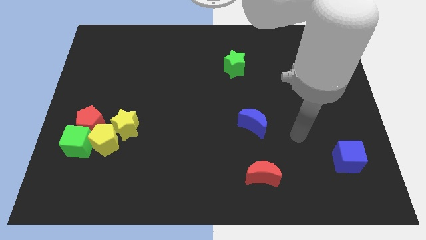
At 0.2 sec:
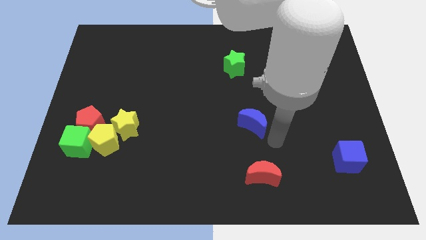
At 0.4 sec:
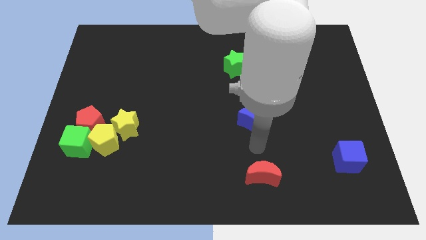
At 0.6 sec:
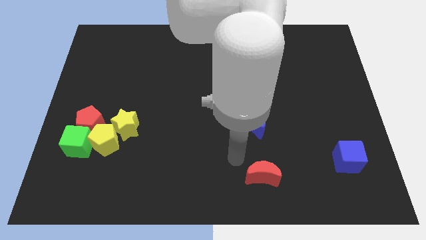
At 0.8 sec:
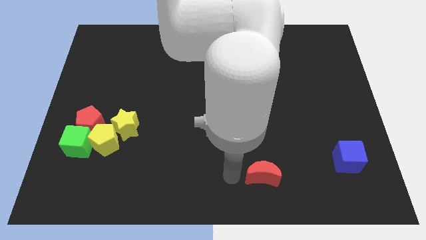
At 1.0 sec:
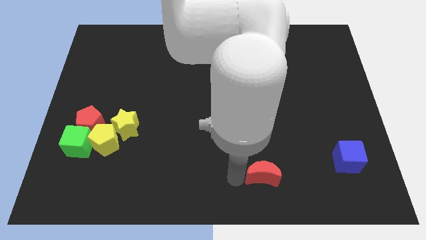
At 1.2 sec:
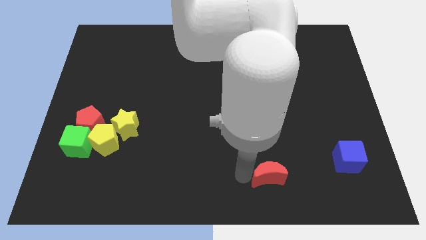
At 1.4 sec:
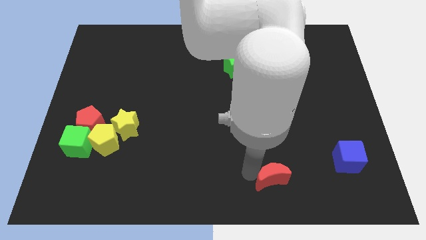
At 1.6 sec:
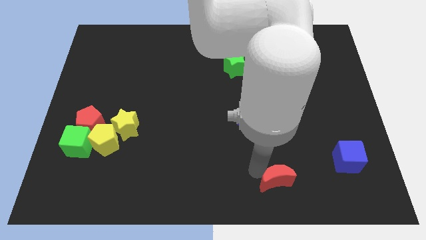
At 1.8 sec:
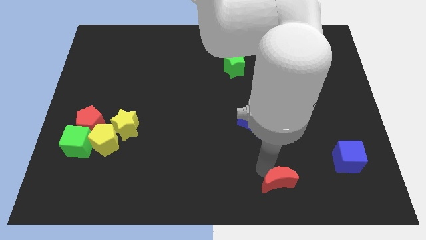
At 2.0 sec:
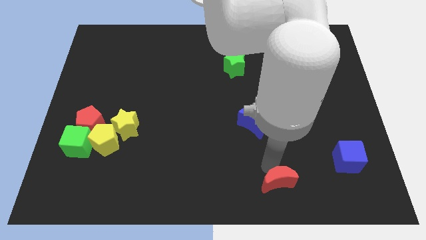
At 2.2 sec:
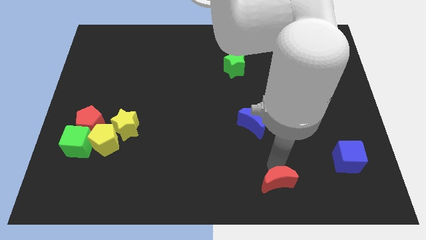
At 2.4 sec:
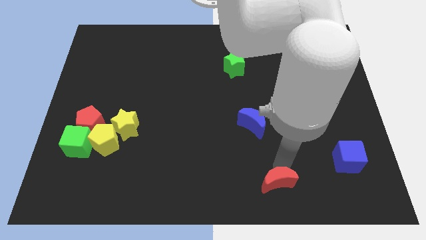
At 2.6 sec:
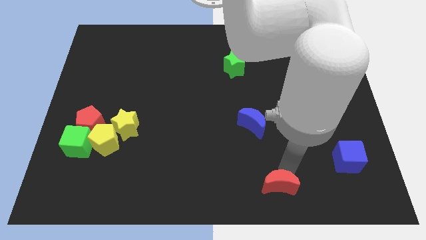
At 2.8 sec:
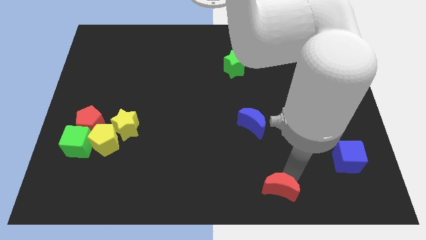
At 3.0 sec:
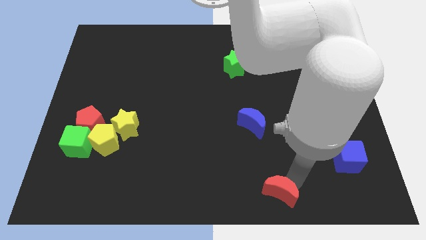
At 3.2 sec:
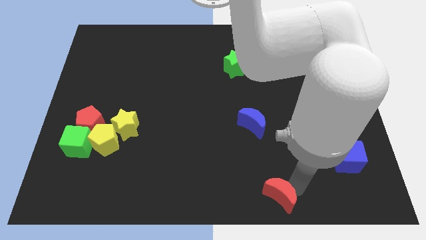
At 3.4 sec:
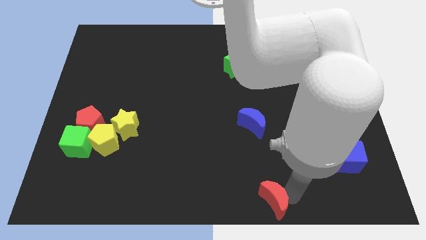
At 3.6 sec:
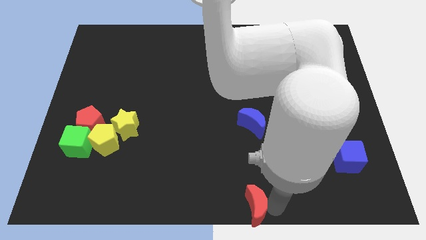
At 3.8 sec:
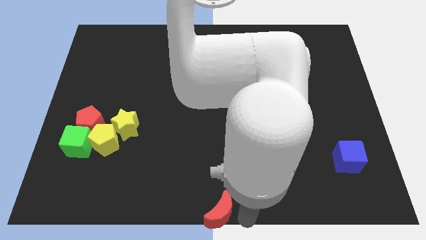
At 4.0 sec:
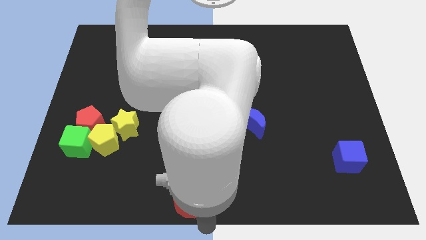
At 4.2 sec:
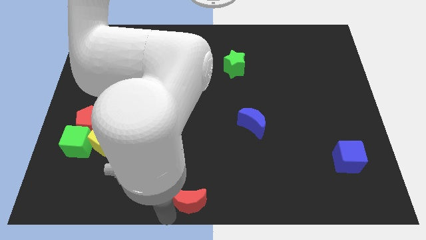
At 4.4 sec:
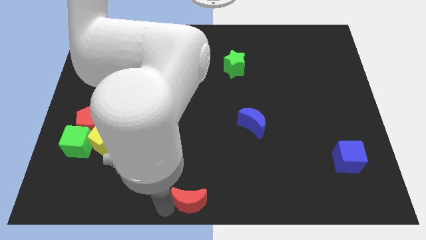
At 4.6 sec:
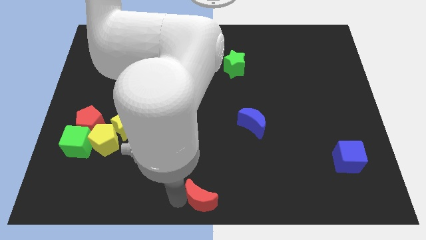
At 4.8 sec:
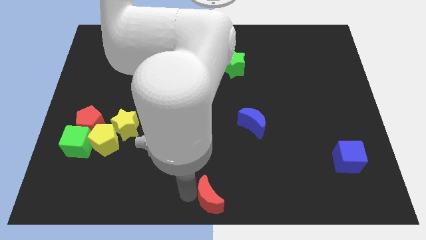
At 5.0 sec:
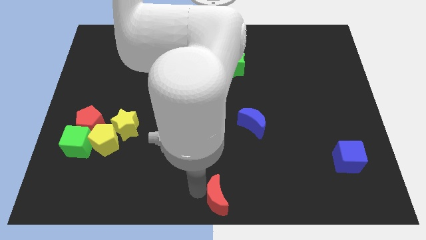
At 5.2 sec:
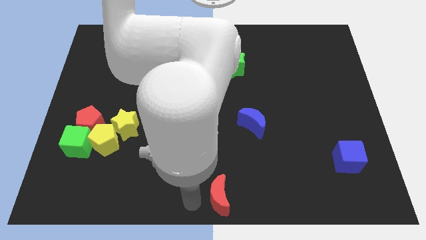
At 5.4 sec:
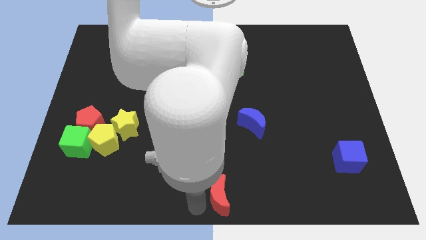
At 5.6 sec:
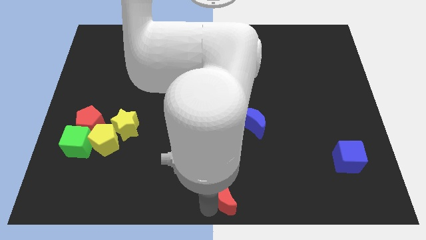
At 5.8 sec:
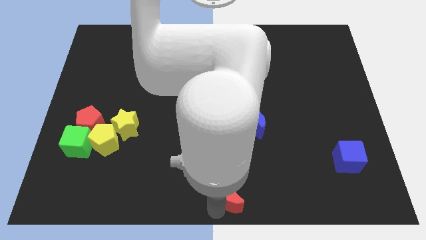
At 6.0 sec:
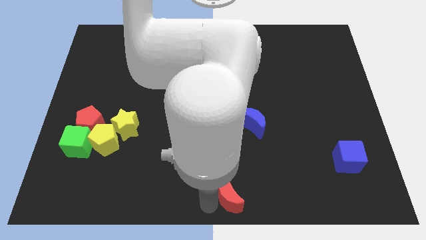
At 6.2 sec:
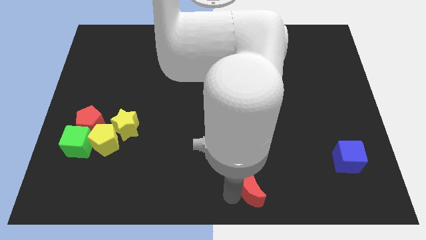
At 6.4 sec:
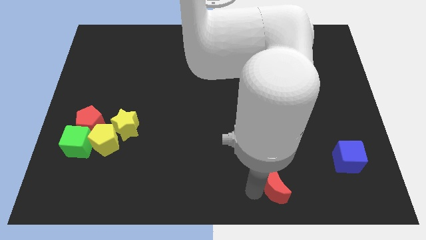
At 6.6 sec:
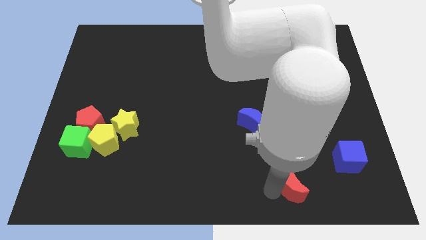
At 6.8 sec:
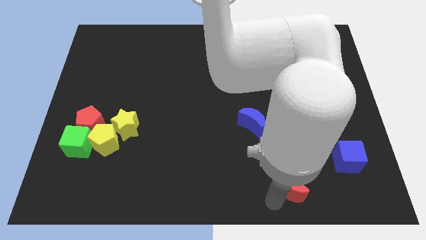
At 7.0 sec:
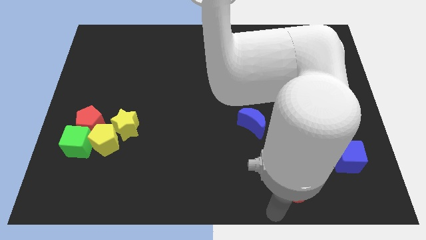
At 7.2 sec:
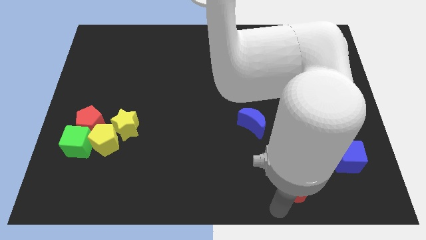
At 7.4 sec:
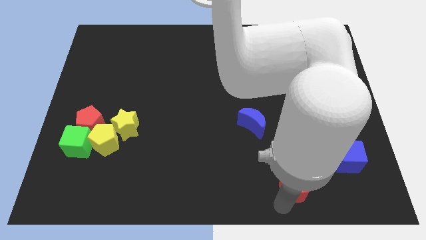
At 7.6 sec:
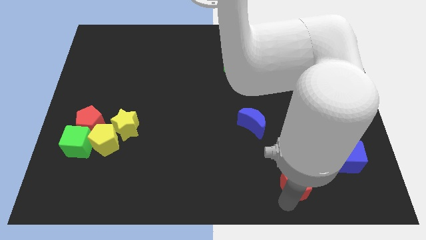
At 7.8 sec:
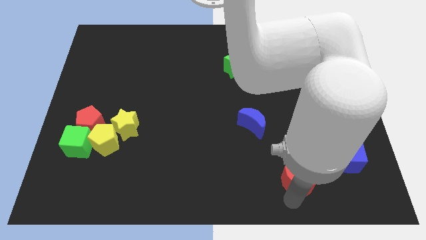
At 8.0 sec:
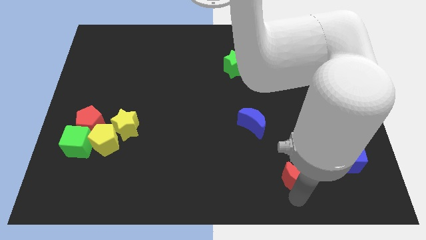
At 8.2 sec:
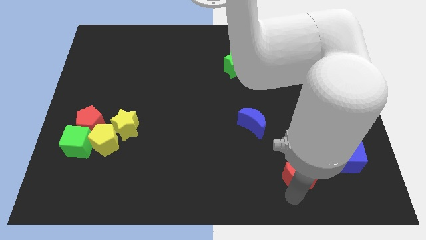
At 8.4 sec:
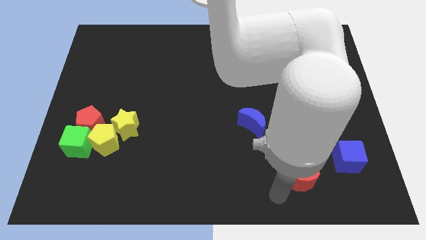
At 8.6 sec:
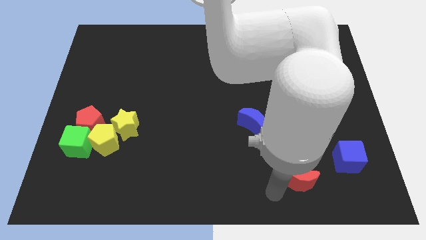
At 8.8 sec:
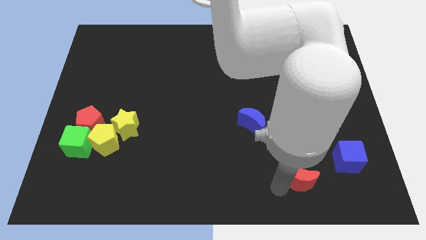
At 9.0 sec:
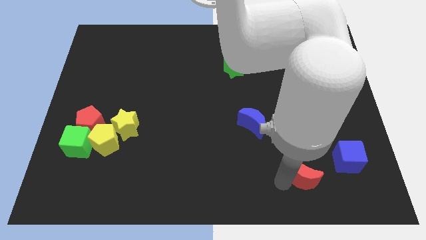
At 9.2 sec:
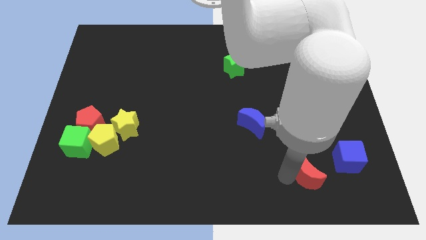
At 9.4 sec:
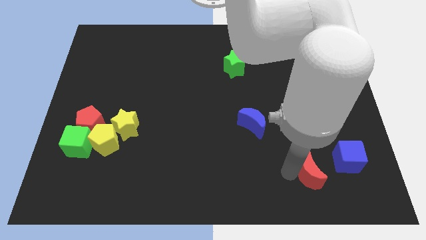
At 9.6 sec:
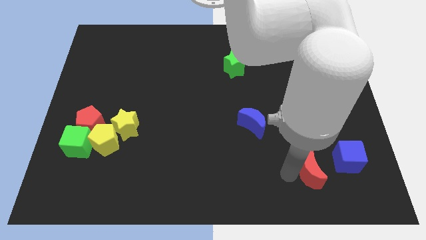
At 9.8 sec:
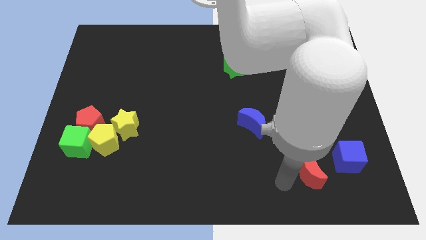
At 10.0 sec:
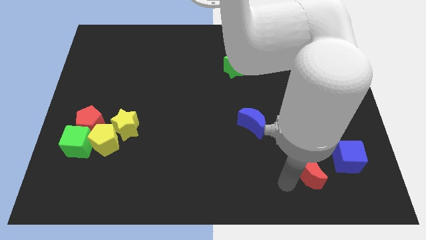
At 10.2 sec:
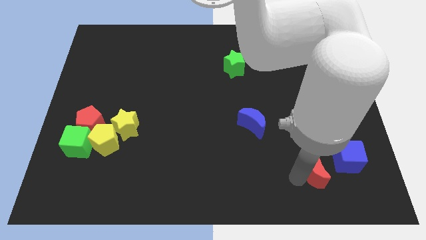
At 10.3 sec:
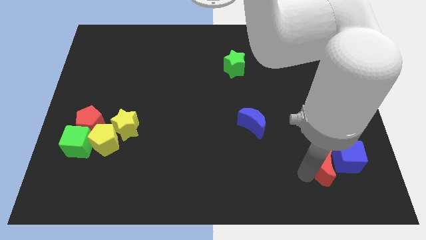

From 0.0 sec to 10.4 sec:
move the red moon to the blue cube

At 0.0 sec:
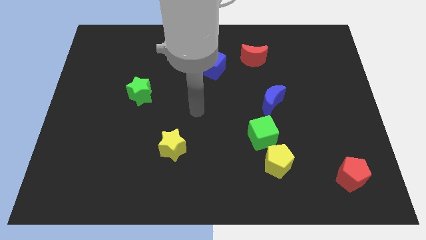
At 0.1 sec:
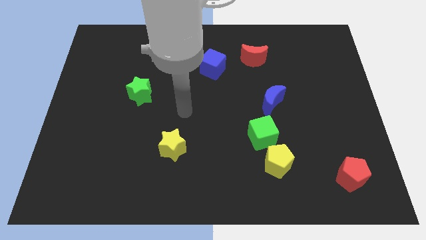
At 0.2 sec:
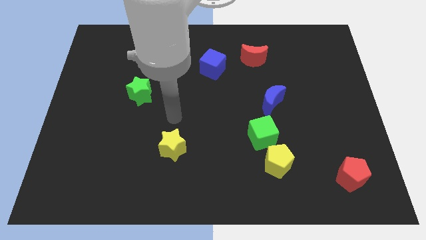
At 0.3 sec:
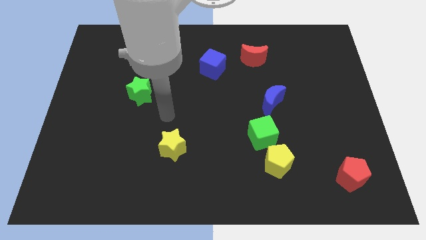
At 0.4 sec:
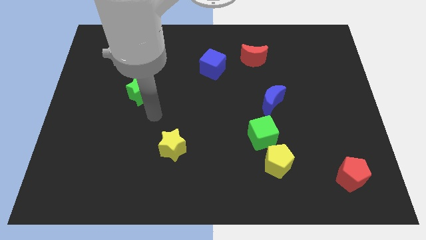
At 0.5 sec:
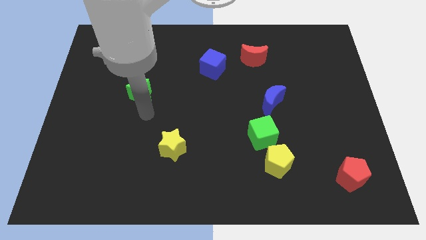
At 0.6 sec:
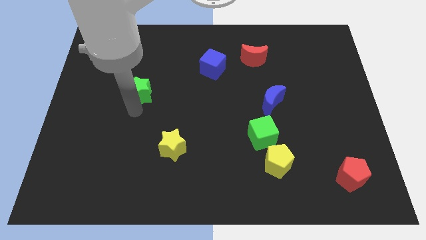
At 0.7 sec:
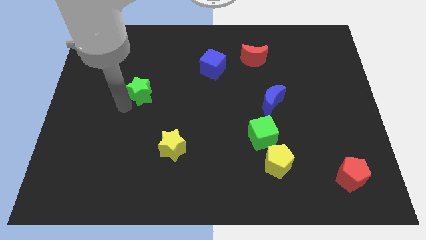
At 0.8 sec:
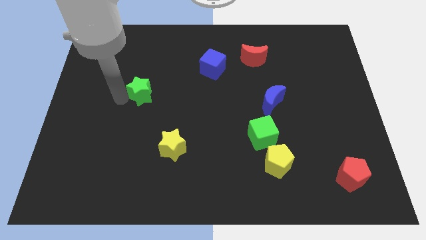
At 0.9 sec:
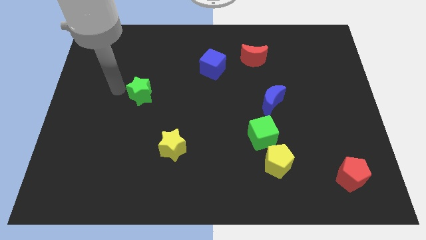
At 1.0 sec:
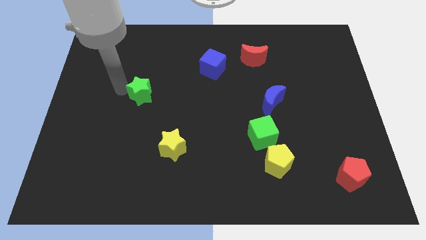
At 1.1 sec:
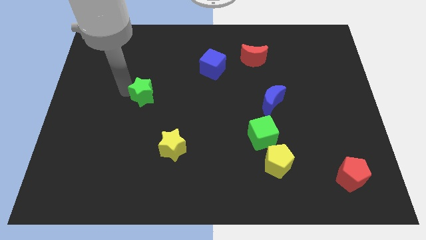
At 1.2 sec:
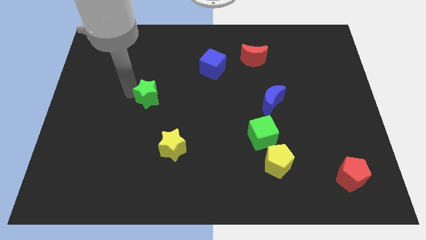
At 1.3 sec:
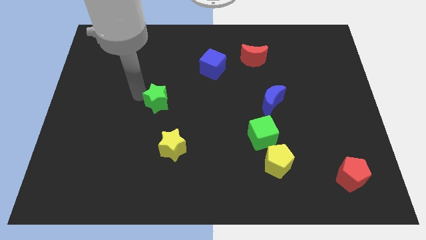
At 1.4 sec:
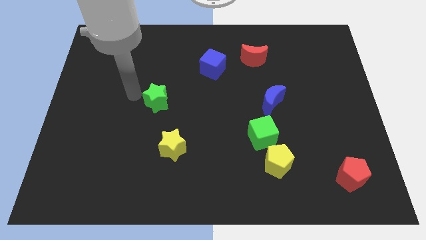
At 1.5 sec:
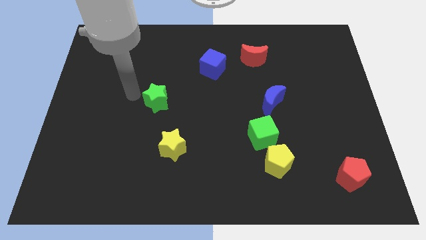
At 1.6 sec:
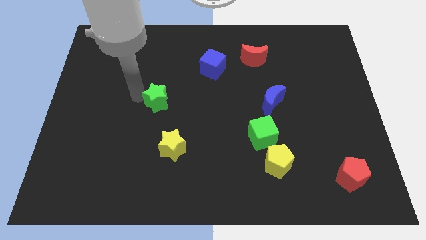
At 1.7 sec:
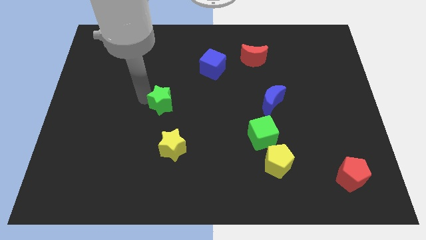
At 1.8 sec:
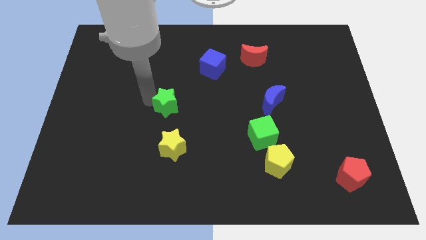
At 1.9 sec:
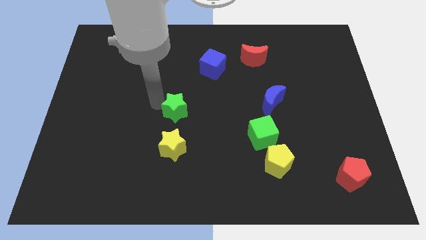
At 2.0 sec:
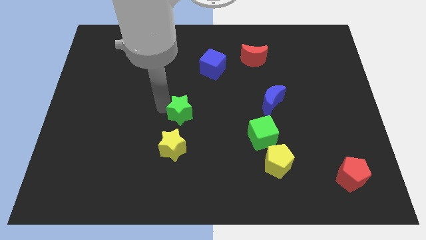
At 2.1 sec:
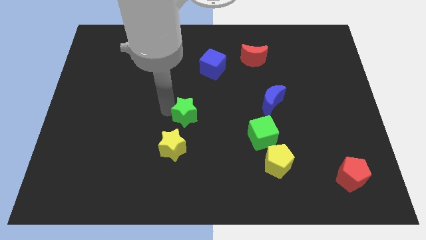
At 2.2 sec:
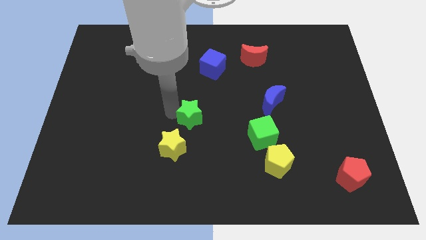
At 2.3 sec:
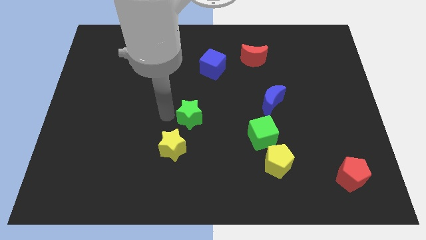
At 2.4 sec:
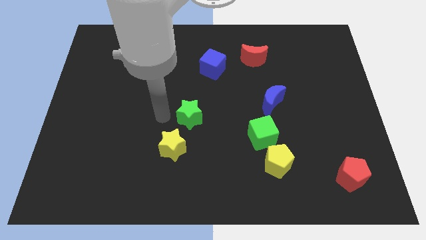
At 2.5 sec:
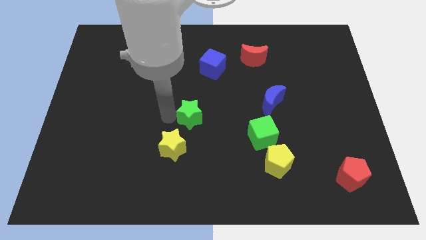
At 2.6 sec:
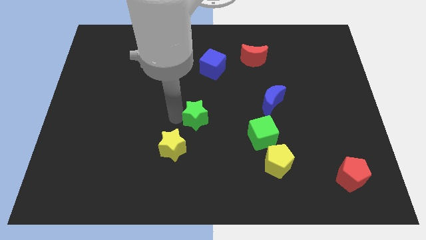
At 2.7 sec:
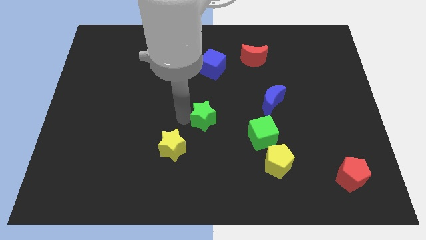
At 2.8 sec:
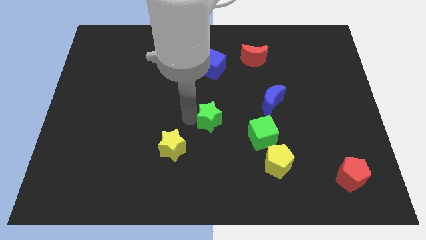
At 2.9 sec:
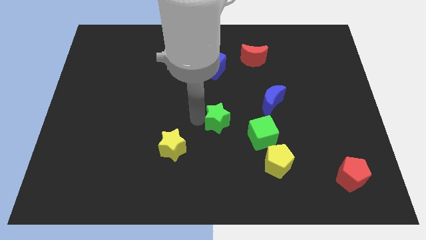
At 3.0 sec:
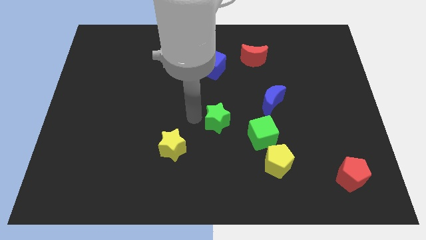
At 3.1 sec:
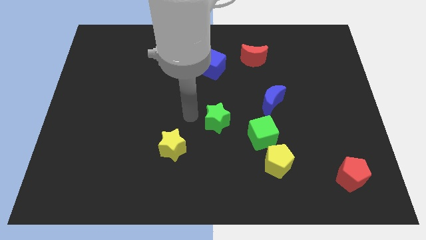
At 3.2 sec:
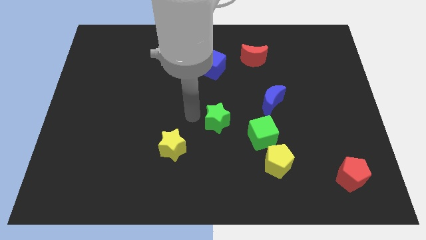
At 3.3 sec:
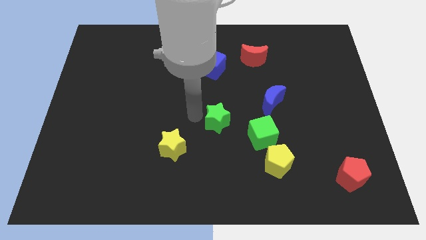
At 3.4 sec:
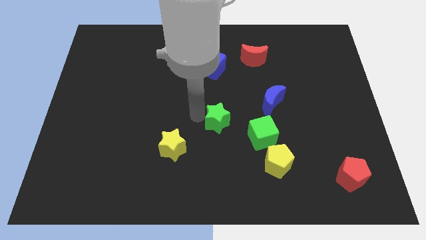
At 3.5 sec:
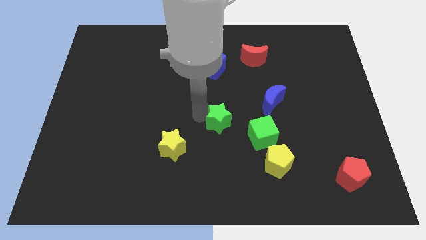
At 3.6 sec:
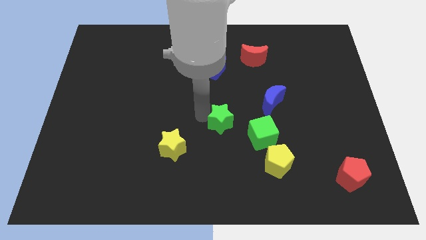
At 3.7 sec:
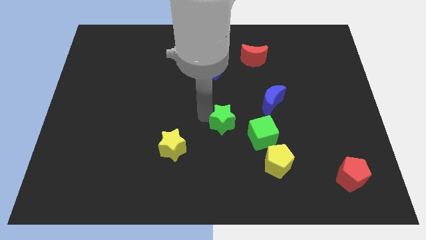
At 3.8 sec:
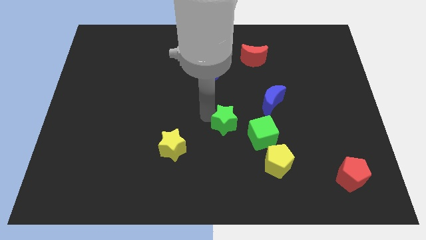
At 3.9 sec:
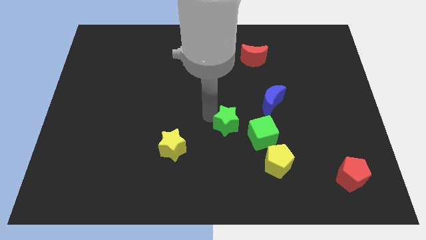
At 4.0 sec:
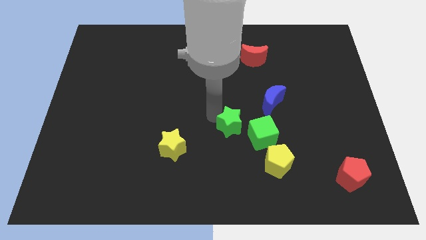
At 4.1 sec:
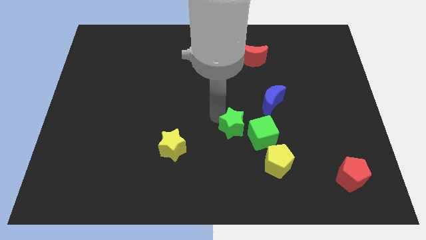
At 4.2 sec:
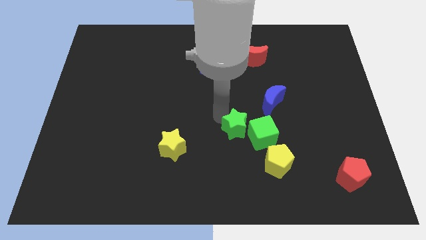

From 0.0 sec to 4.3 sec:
slide the green star to the green cube
